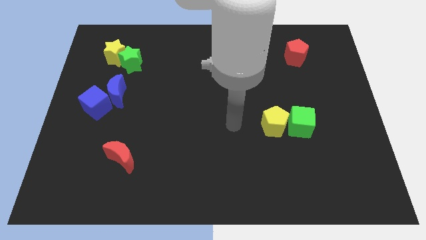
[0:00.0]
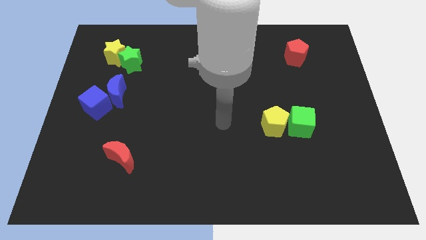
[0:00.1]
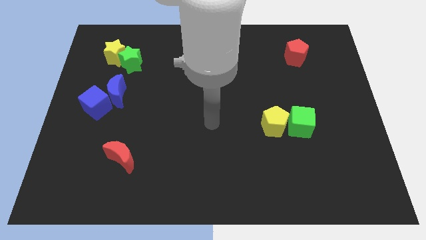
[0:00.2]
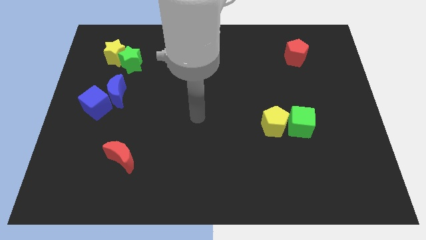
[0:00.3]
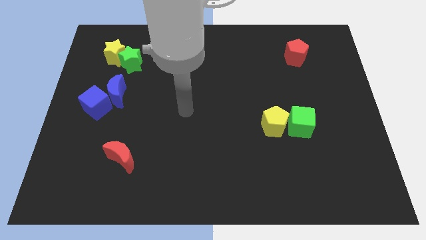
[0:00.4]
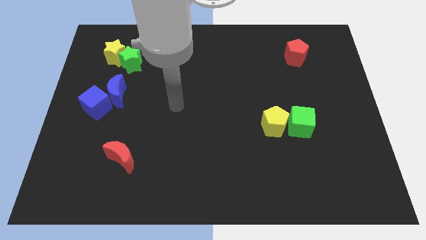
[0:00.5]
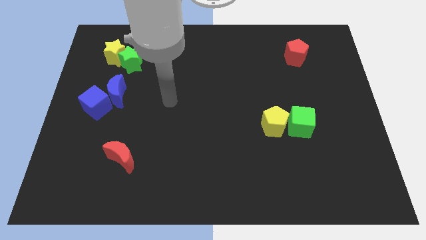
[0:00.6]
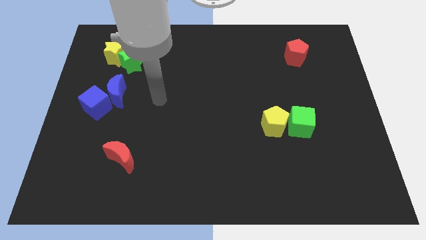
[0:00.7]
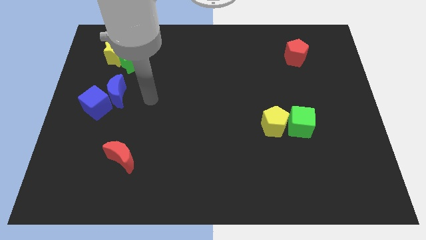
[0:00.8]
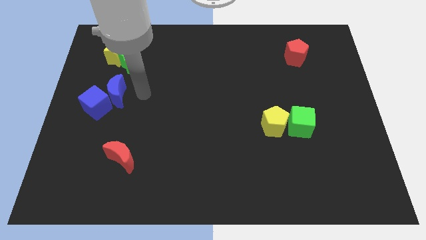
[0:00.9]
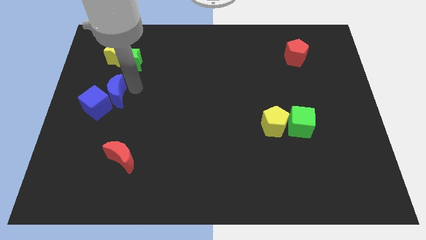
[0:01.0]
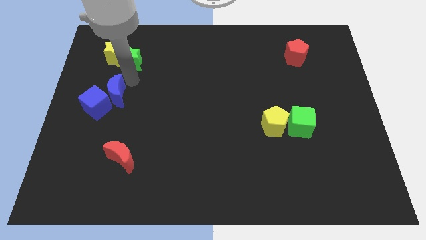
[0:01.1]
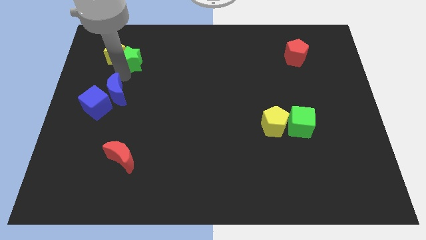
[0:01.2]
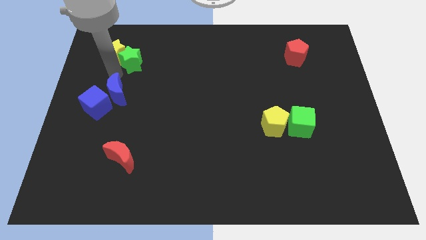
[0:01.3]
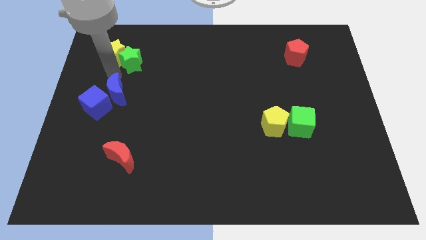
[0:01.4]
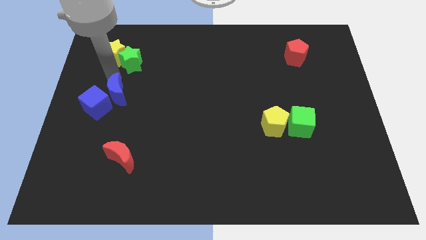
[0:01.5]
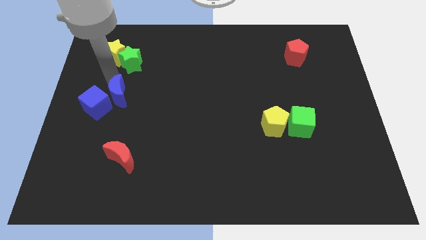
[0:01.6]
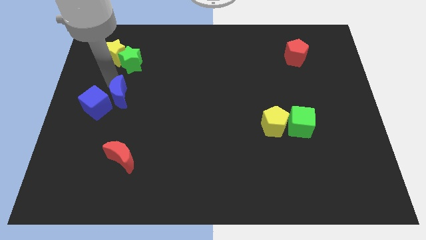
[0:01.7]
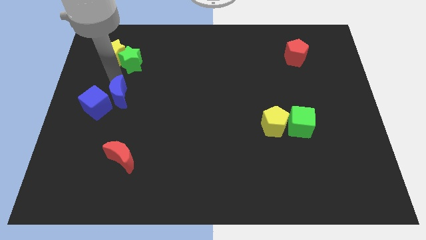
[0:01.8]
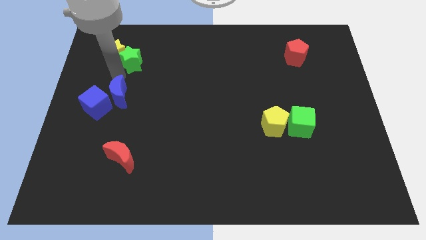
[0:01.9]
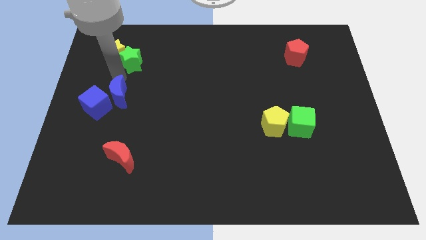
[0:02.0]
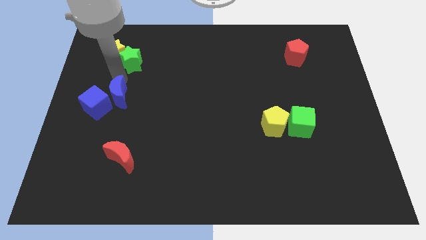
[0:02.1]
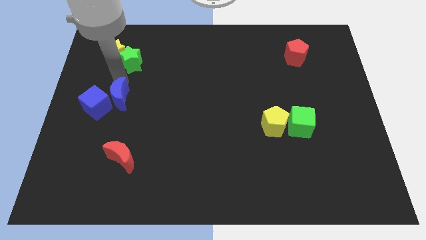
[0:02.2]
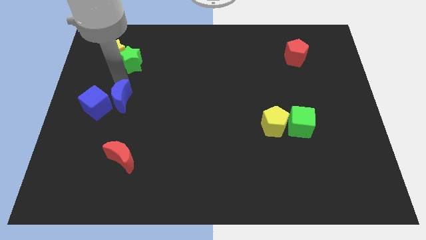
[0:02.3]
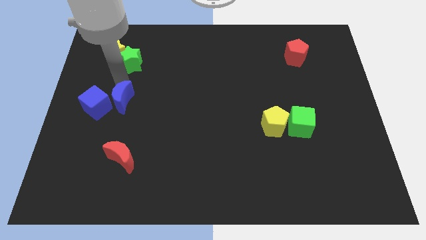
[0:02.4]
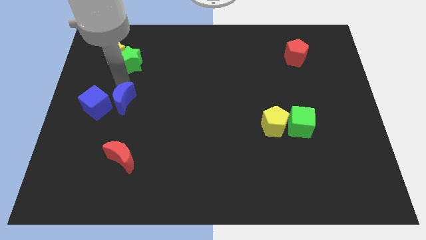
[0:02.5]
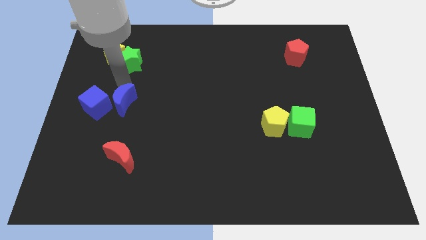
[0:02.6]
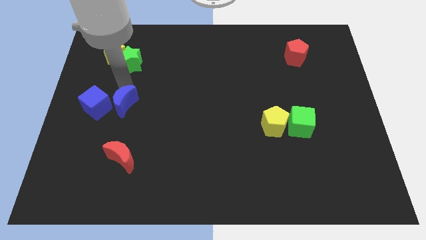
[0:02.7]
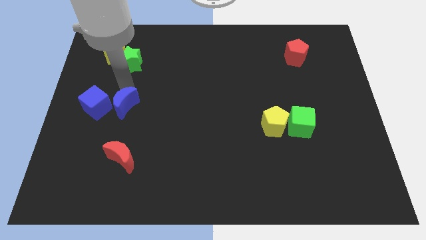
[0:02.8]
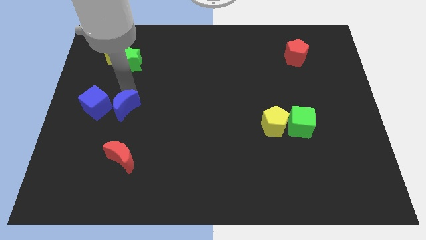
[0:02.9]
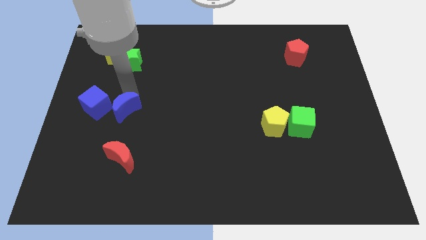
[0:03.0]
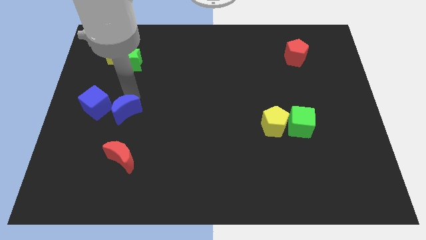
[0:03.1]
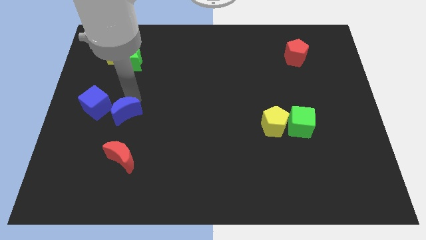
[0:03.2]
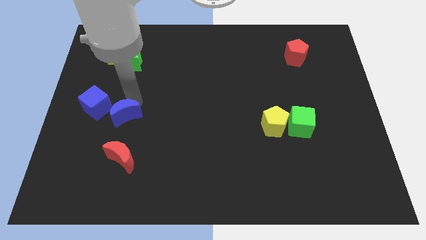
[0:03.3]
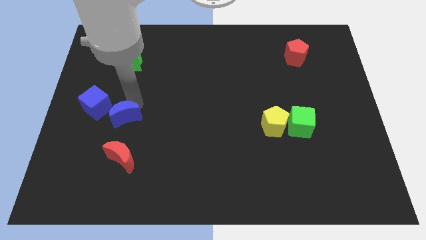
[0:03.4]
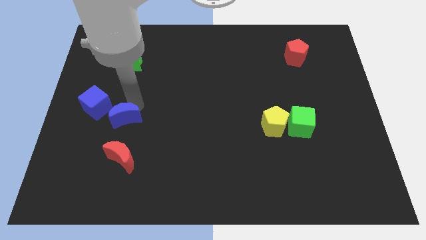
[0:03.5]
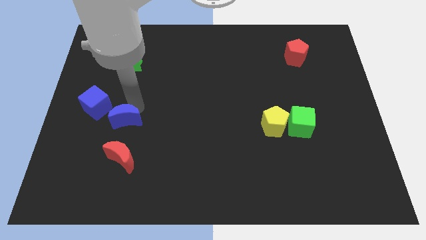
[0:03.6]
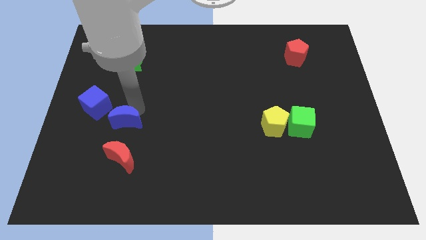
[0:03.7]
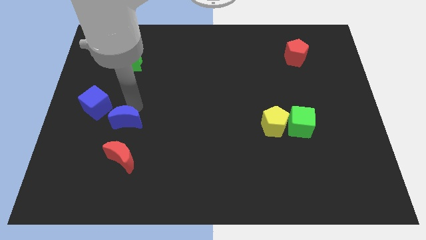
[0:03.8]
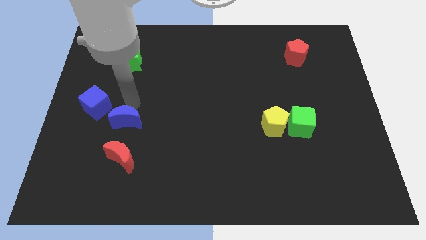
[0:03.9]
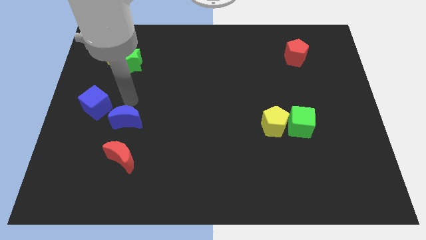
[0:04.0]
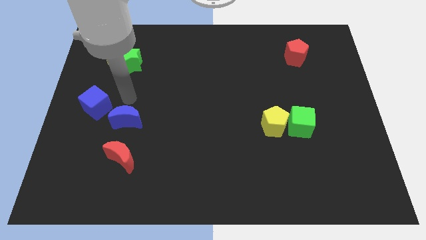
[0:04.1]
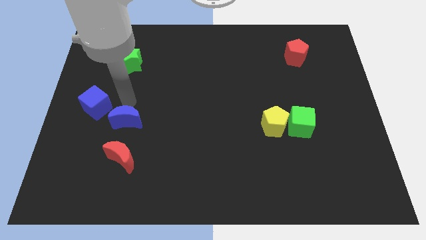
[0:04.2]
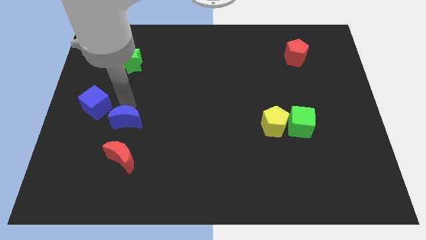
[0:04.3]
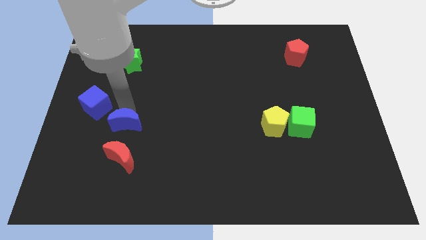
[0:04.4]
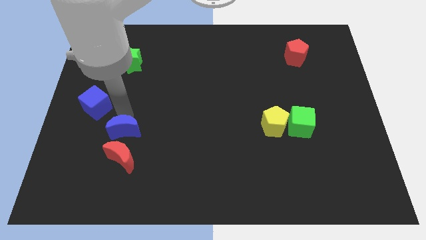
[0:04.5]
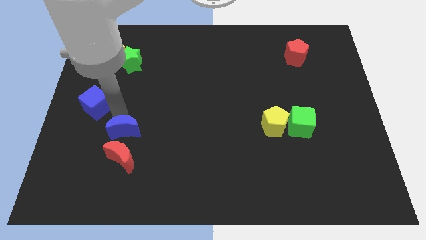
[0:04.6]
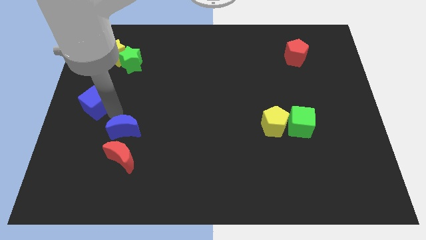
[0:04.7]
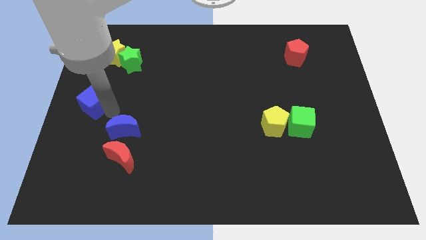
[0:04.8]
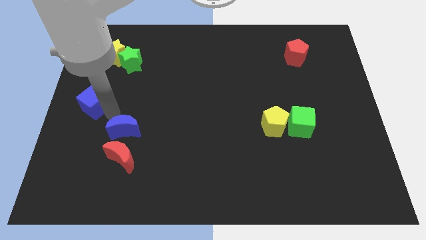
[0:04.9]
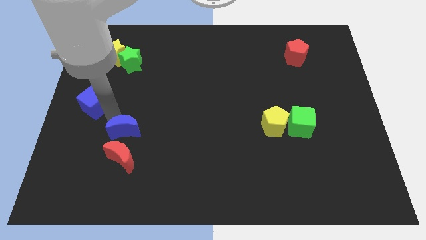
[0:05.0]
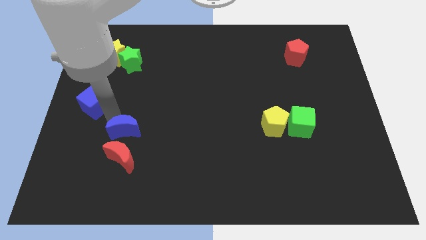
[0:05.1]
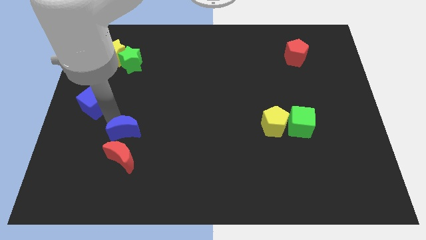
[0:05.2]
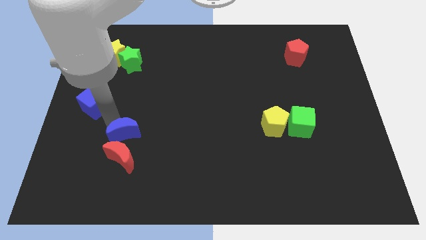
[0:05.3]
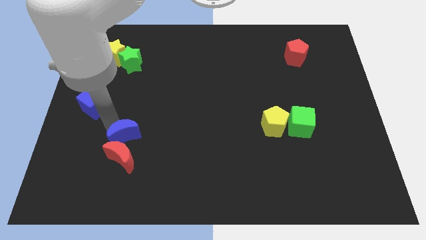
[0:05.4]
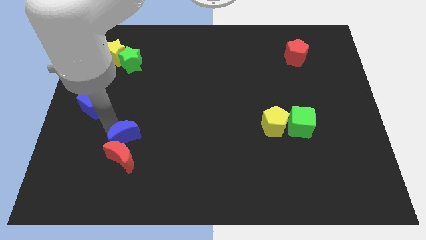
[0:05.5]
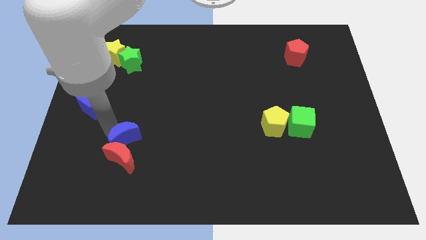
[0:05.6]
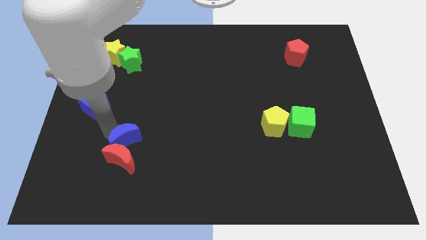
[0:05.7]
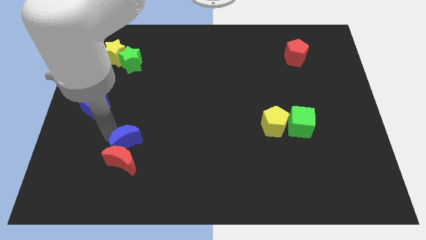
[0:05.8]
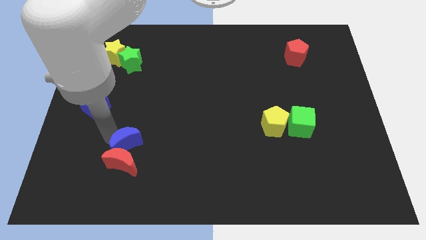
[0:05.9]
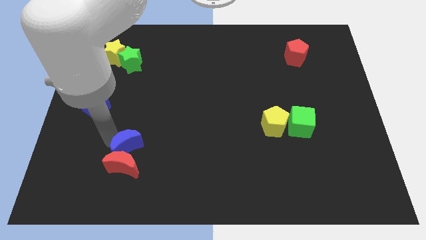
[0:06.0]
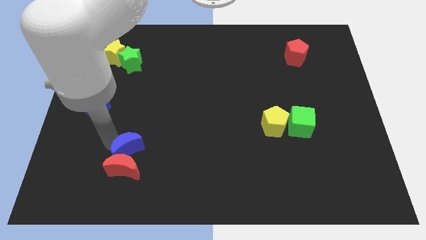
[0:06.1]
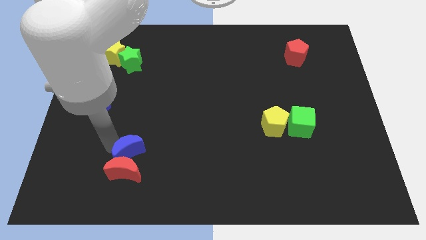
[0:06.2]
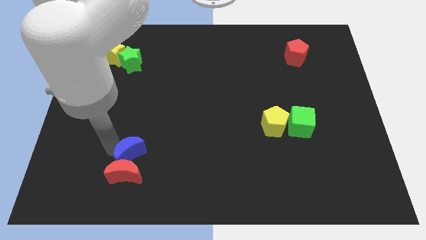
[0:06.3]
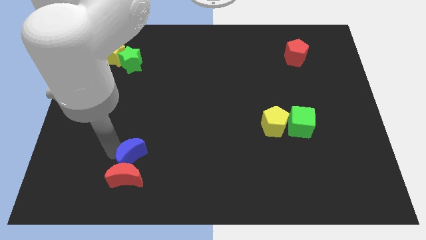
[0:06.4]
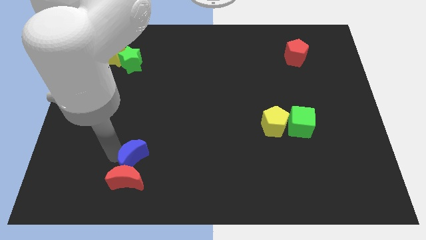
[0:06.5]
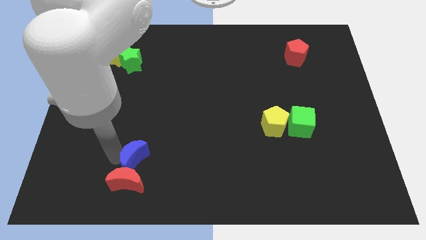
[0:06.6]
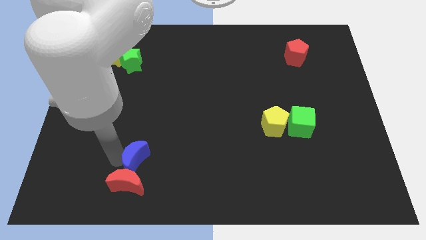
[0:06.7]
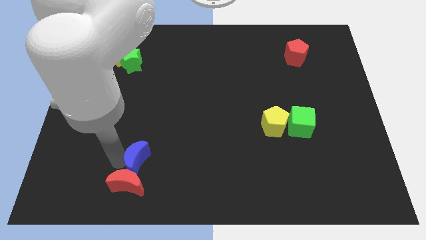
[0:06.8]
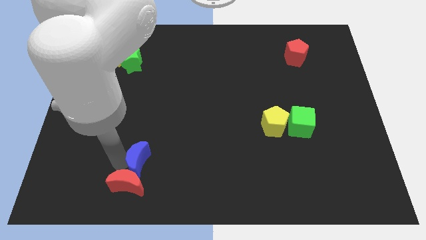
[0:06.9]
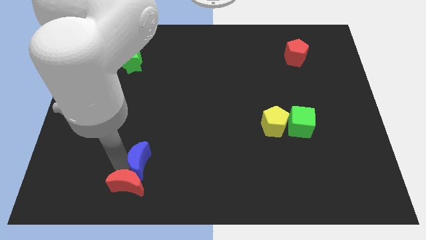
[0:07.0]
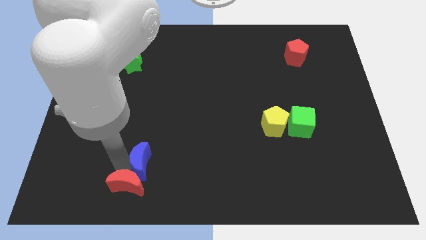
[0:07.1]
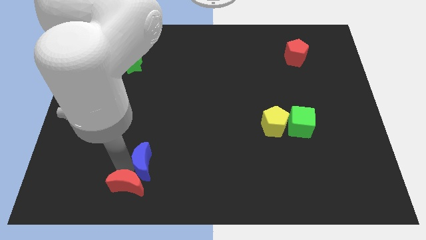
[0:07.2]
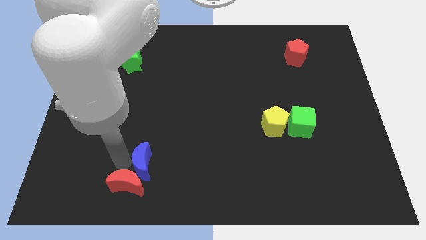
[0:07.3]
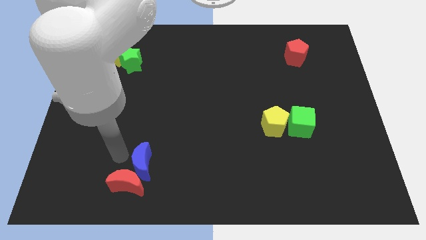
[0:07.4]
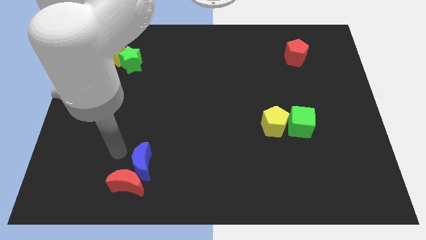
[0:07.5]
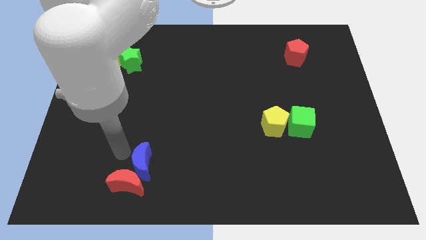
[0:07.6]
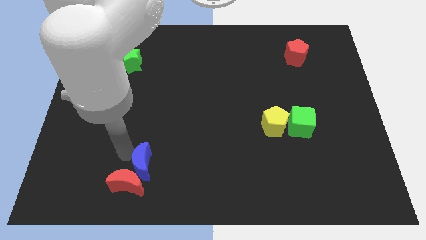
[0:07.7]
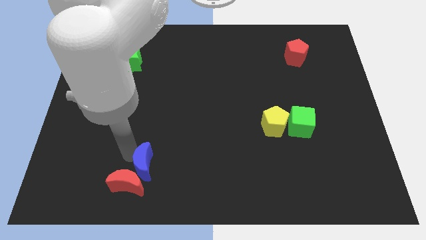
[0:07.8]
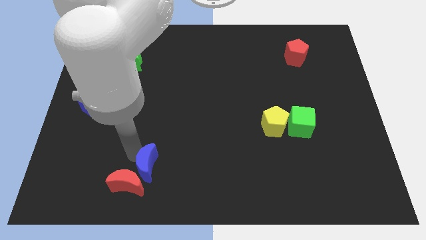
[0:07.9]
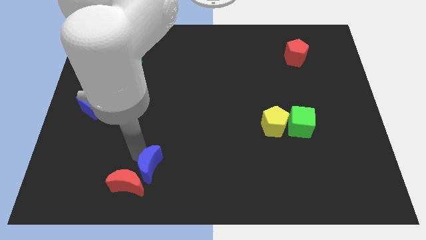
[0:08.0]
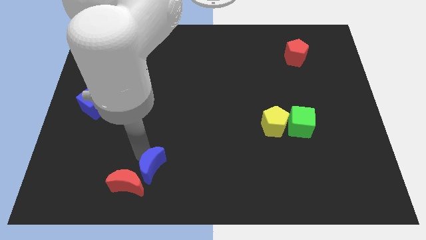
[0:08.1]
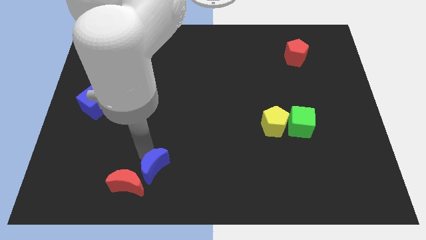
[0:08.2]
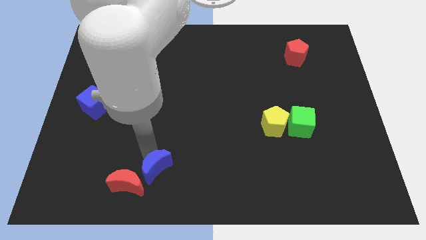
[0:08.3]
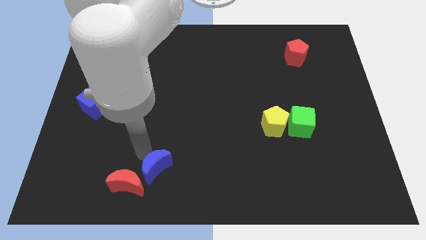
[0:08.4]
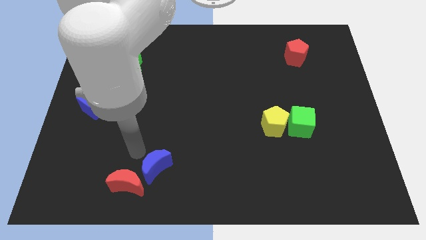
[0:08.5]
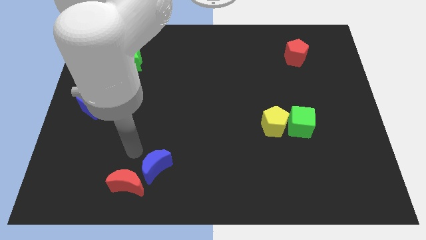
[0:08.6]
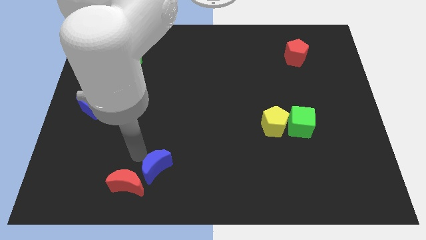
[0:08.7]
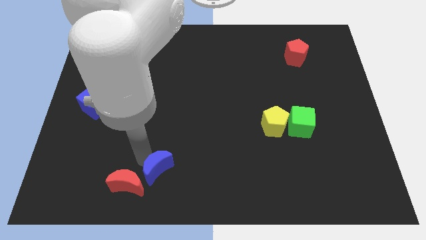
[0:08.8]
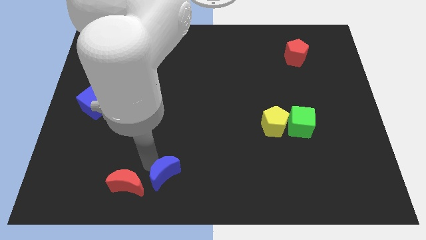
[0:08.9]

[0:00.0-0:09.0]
move the blue moon to the bottom
